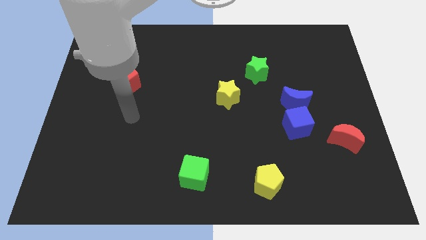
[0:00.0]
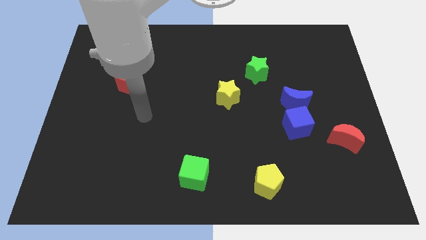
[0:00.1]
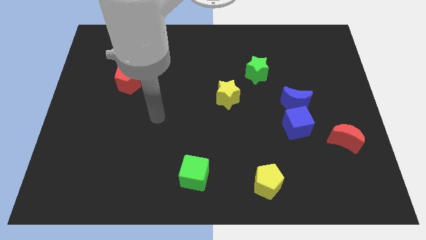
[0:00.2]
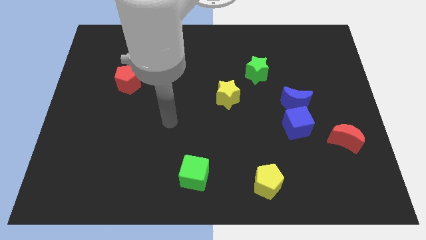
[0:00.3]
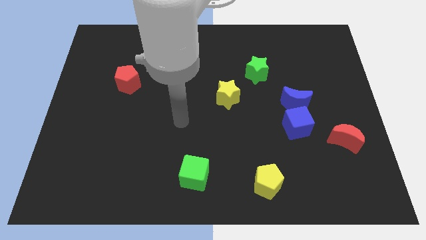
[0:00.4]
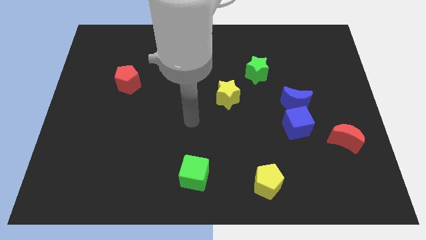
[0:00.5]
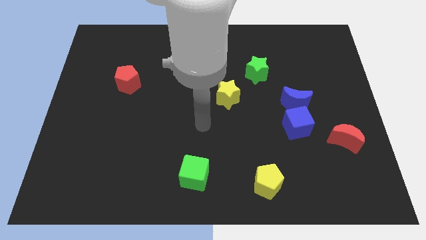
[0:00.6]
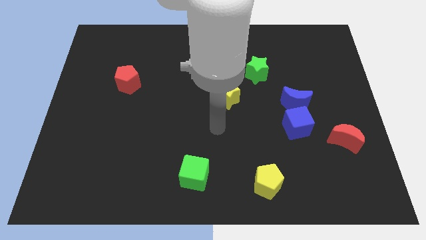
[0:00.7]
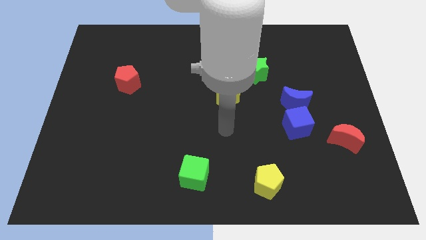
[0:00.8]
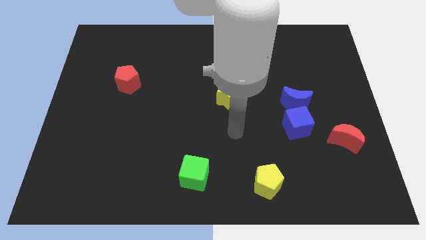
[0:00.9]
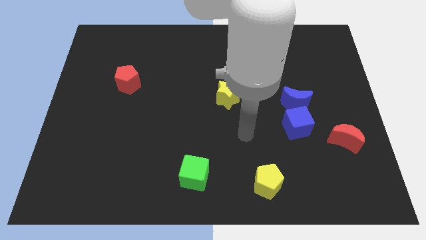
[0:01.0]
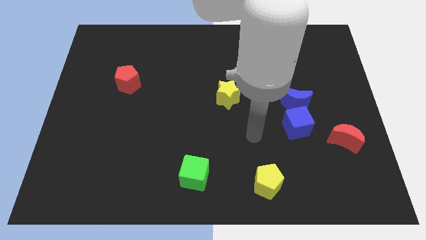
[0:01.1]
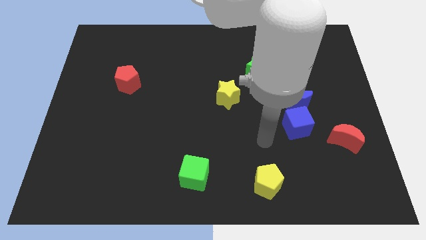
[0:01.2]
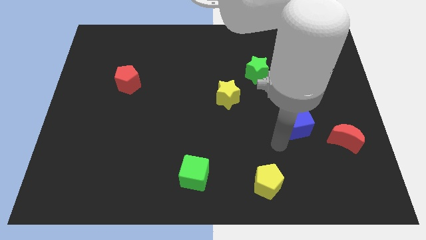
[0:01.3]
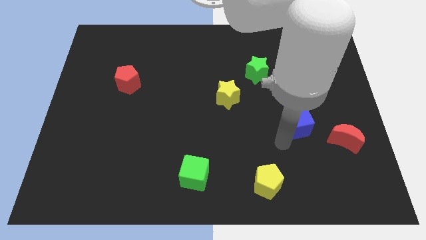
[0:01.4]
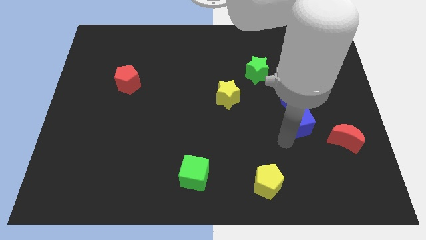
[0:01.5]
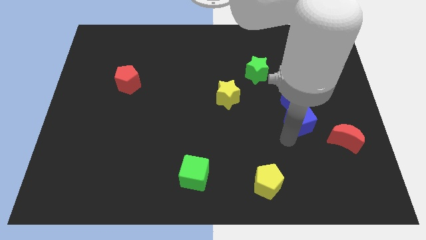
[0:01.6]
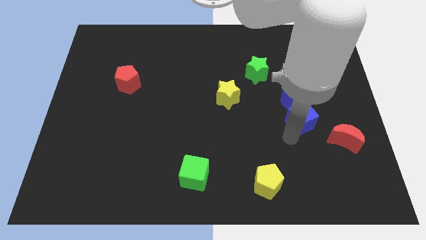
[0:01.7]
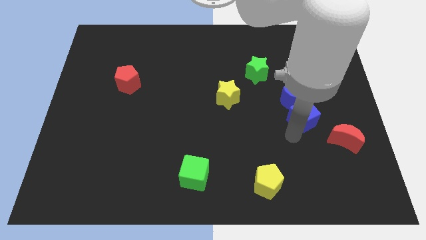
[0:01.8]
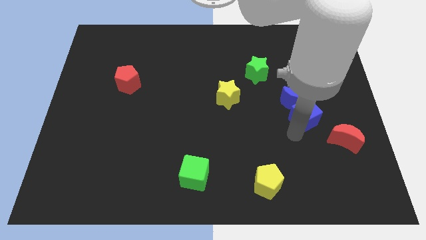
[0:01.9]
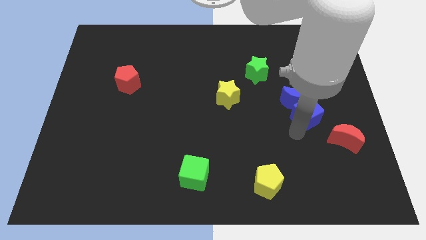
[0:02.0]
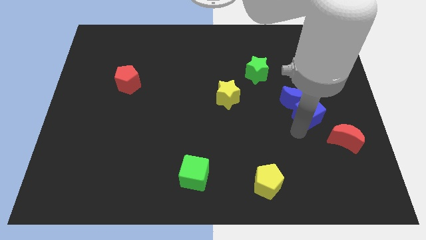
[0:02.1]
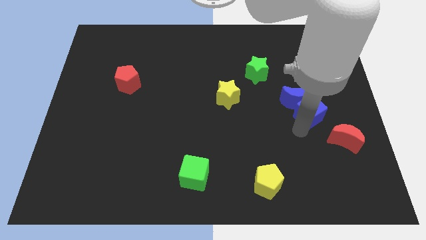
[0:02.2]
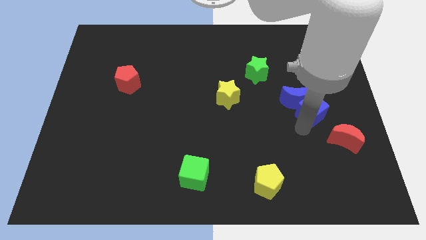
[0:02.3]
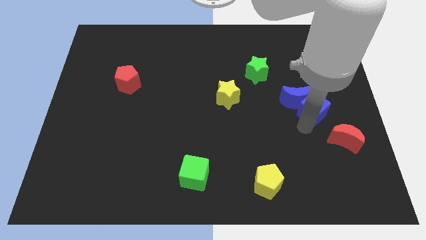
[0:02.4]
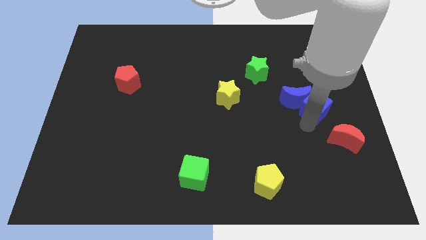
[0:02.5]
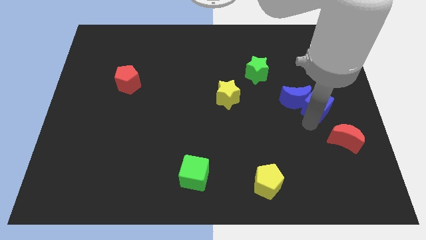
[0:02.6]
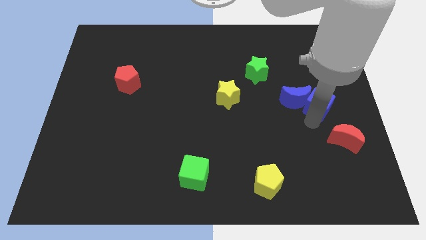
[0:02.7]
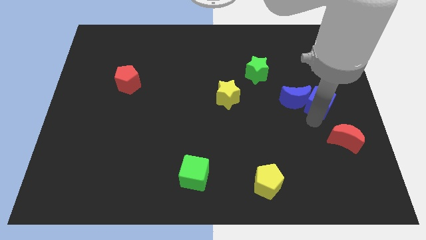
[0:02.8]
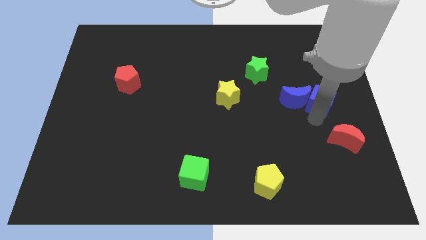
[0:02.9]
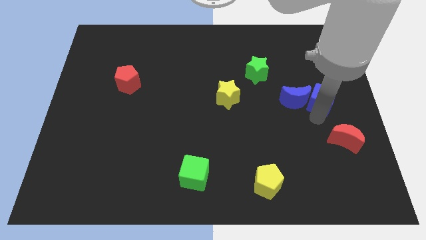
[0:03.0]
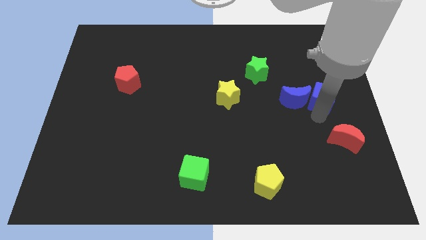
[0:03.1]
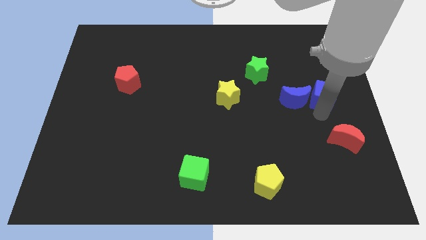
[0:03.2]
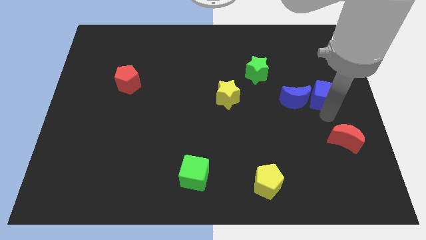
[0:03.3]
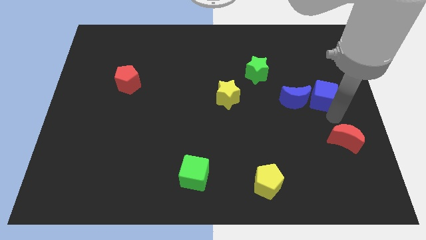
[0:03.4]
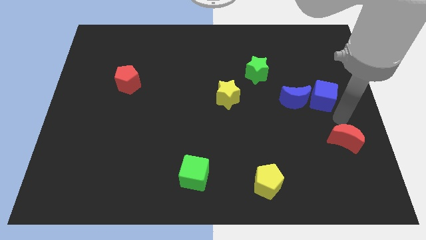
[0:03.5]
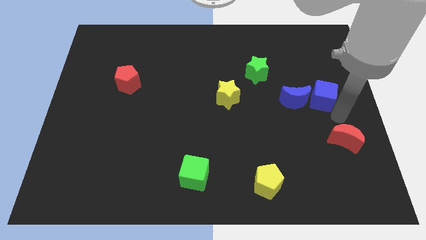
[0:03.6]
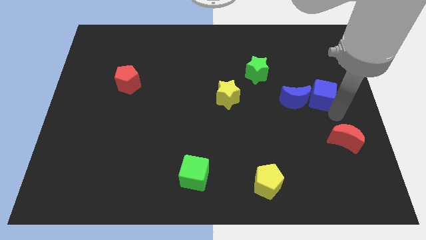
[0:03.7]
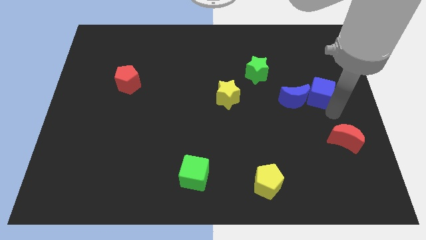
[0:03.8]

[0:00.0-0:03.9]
slide the blue cube a little upwards

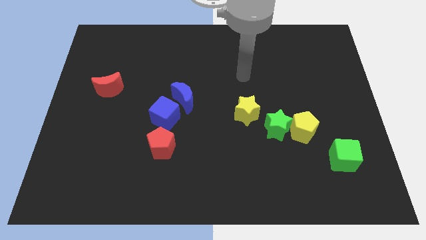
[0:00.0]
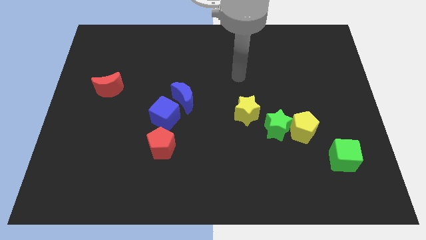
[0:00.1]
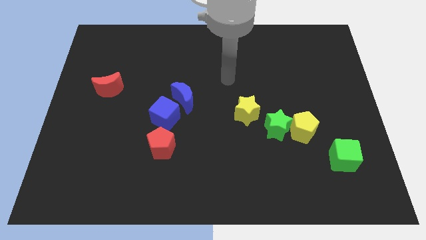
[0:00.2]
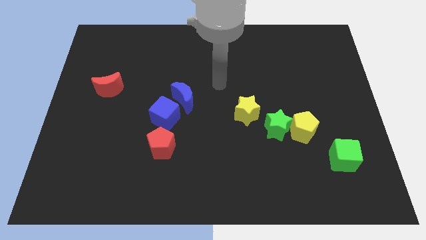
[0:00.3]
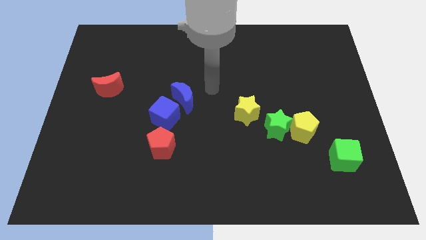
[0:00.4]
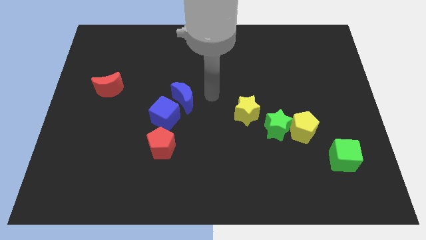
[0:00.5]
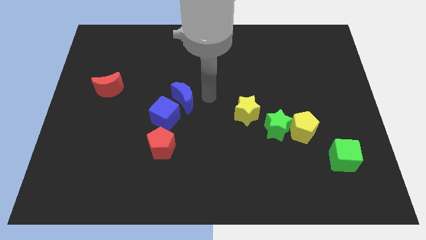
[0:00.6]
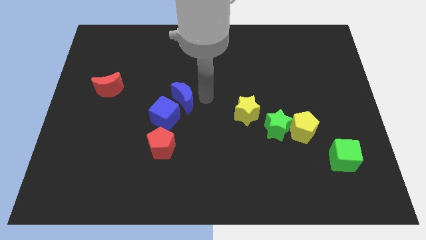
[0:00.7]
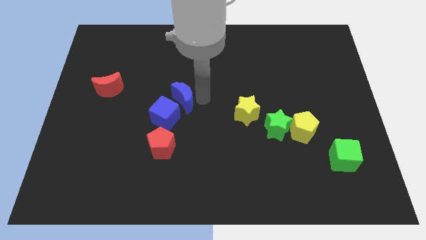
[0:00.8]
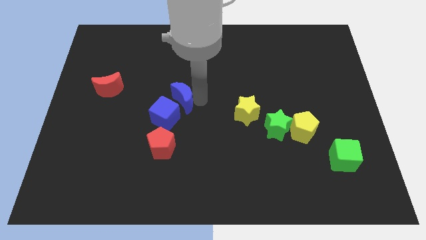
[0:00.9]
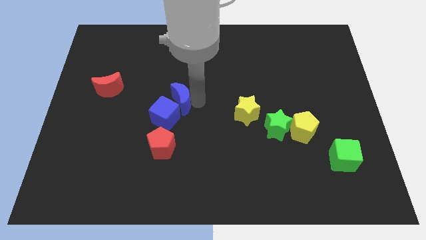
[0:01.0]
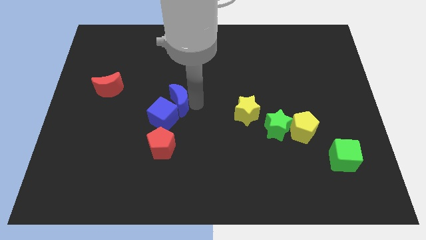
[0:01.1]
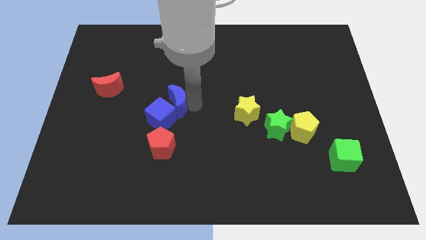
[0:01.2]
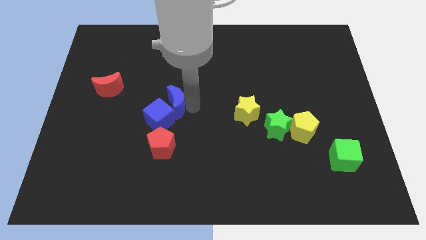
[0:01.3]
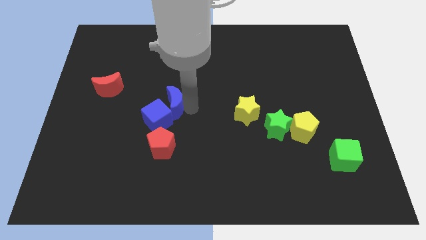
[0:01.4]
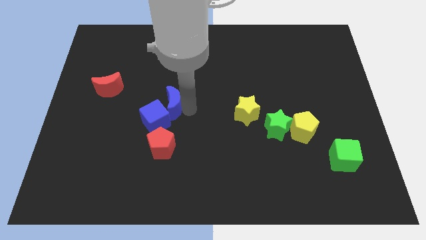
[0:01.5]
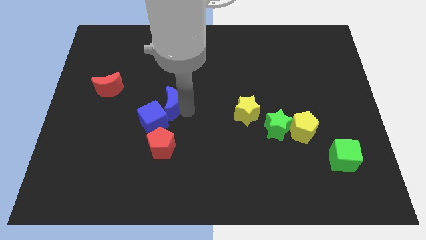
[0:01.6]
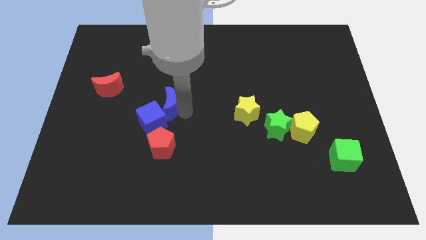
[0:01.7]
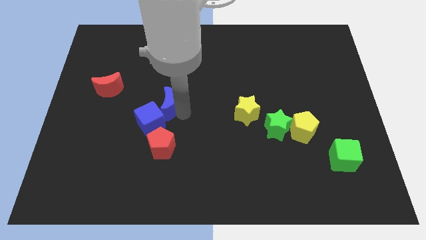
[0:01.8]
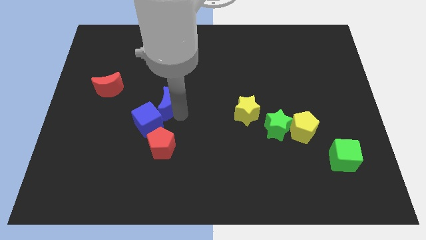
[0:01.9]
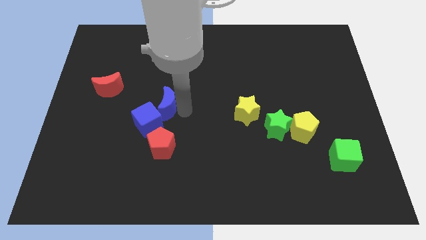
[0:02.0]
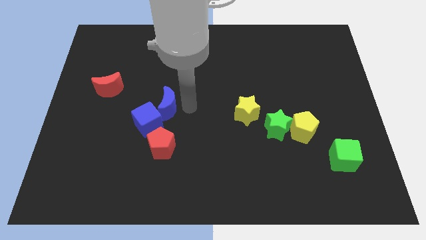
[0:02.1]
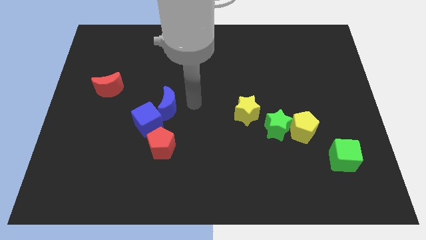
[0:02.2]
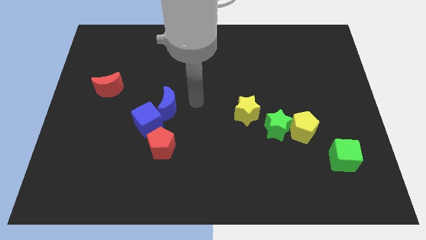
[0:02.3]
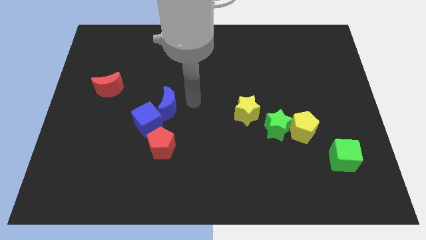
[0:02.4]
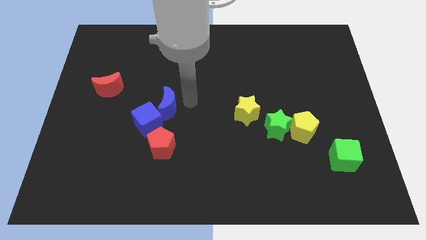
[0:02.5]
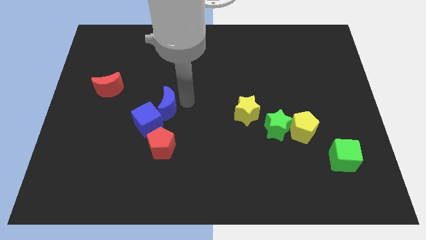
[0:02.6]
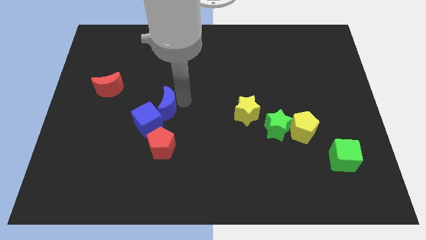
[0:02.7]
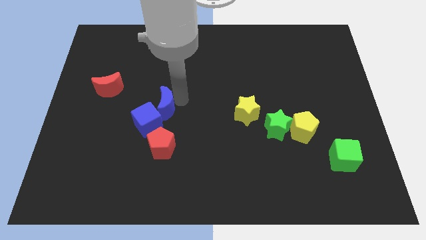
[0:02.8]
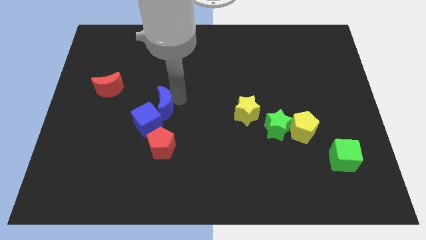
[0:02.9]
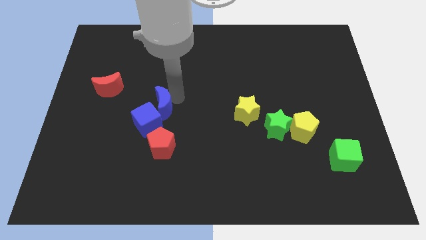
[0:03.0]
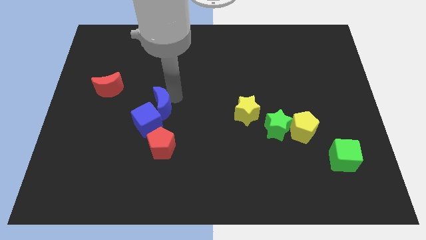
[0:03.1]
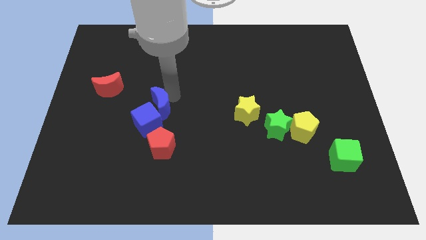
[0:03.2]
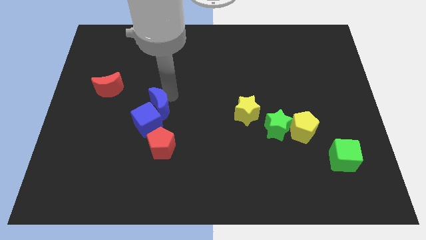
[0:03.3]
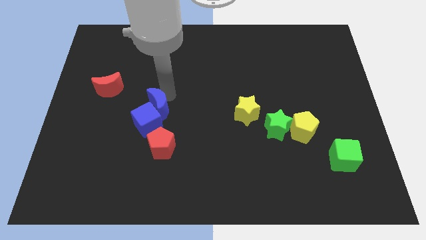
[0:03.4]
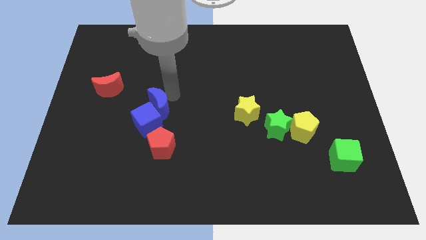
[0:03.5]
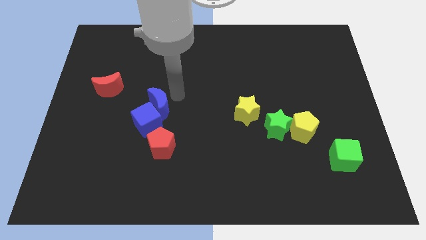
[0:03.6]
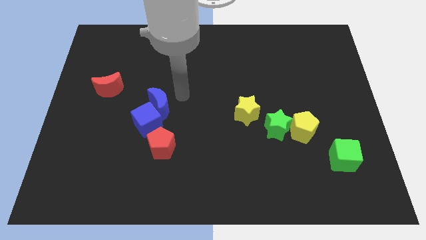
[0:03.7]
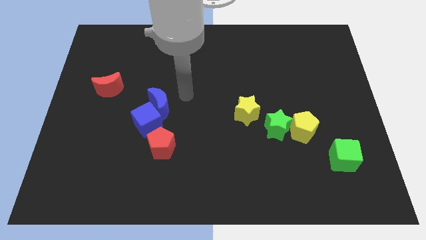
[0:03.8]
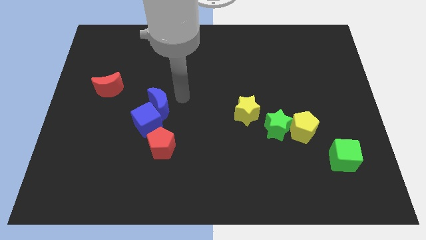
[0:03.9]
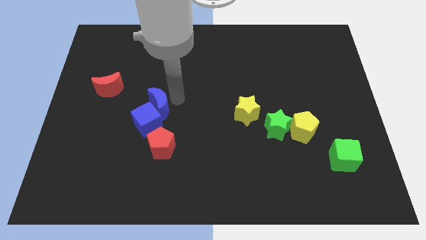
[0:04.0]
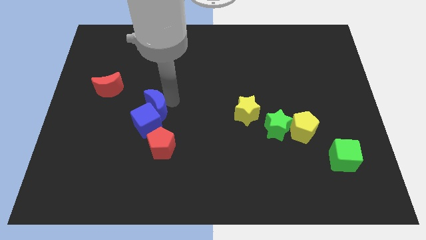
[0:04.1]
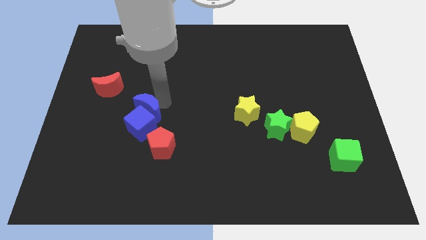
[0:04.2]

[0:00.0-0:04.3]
push the blue moon diagonally downwards and left slightly

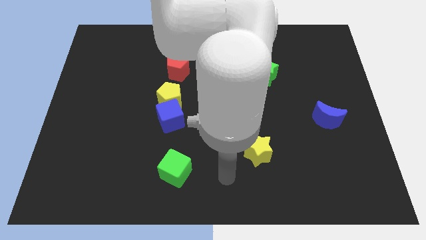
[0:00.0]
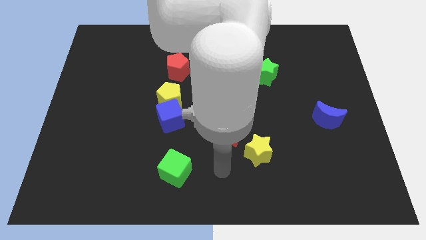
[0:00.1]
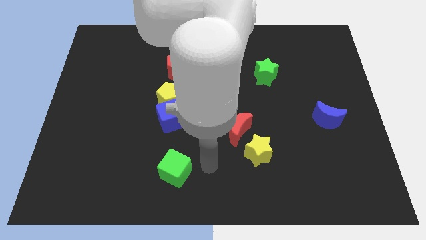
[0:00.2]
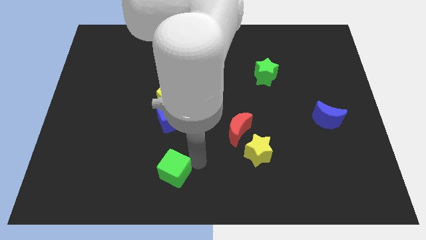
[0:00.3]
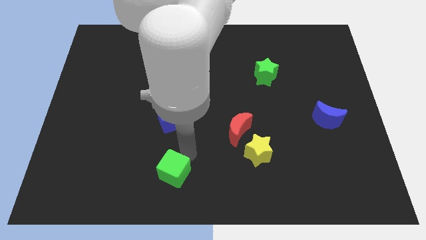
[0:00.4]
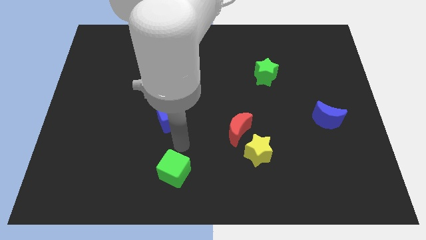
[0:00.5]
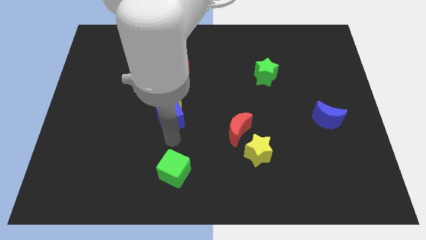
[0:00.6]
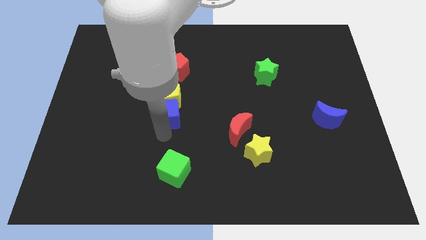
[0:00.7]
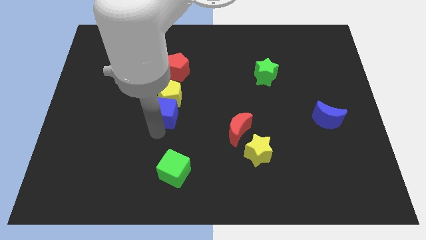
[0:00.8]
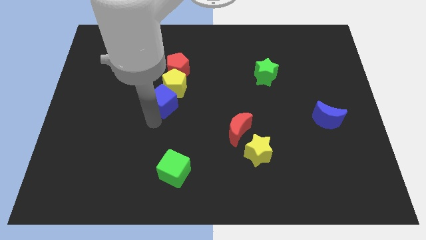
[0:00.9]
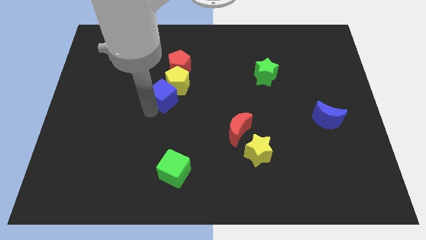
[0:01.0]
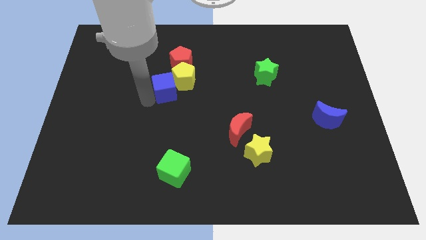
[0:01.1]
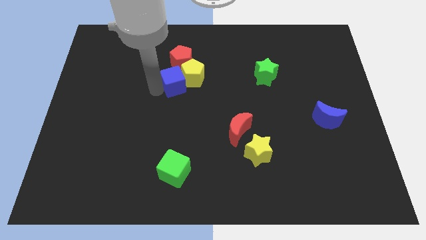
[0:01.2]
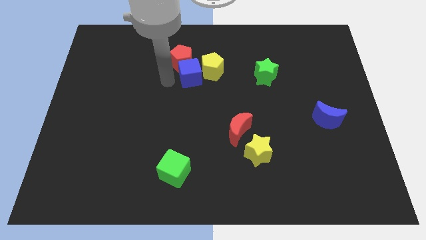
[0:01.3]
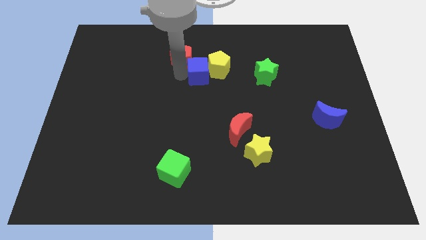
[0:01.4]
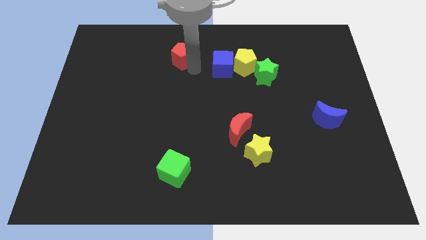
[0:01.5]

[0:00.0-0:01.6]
slightly slide the yellow pentagon to the right
